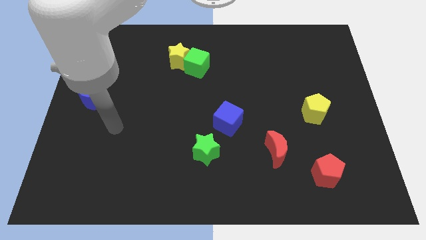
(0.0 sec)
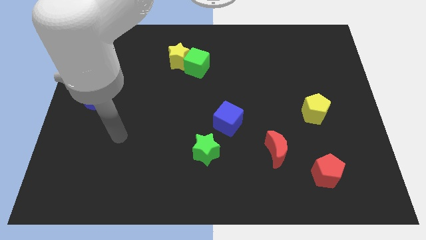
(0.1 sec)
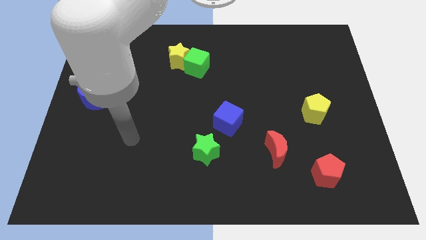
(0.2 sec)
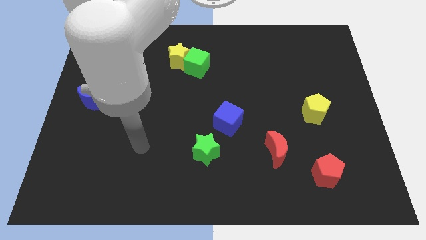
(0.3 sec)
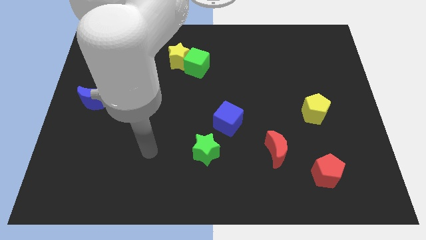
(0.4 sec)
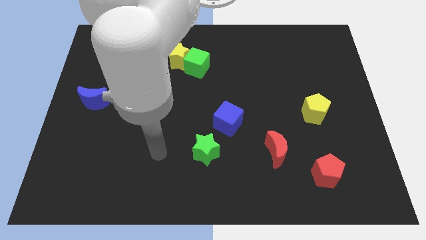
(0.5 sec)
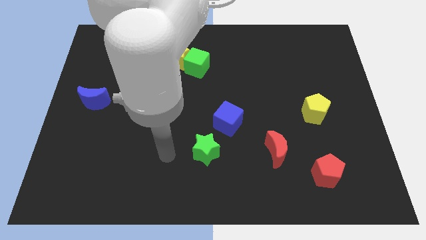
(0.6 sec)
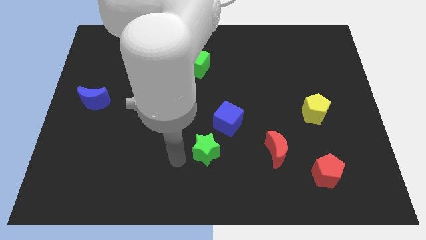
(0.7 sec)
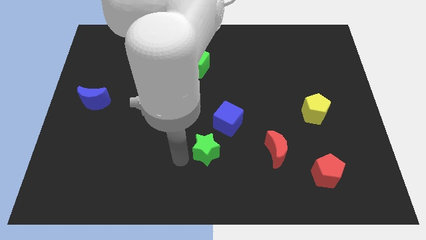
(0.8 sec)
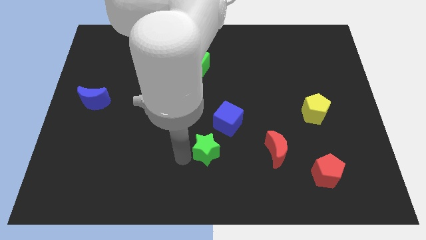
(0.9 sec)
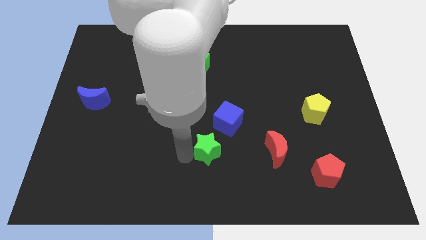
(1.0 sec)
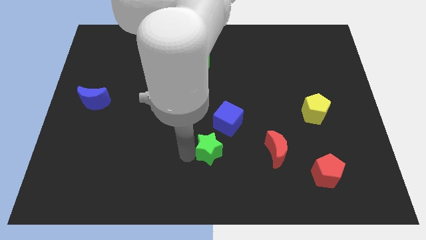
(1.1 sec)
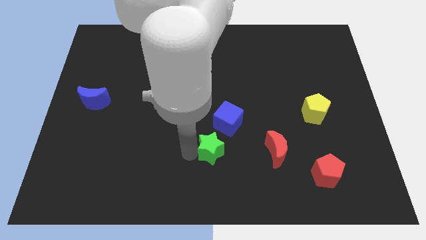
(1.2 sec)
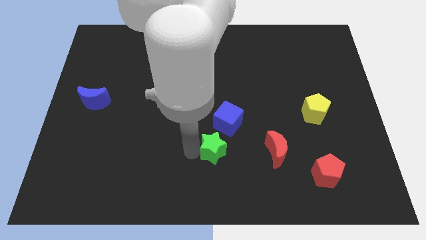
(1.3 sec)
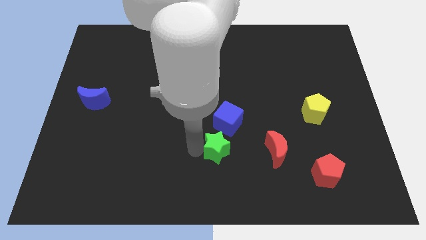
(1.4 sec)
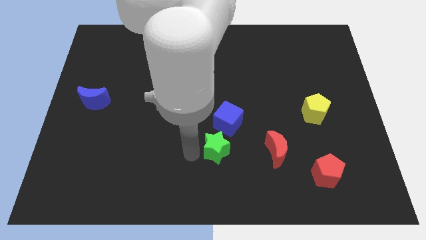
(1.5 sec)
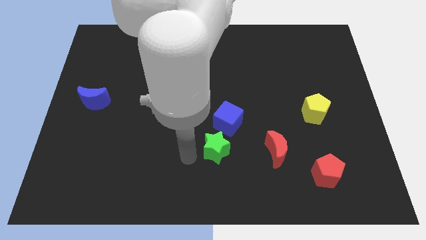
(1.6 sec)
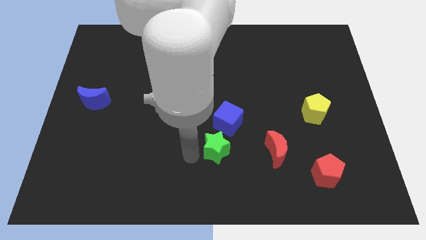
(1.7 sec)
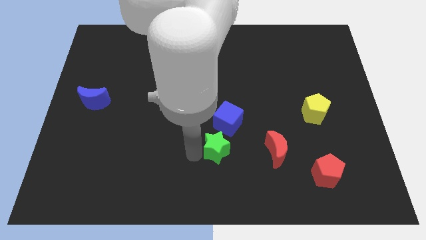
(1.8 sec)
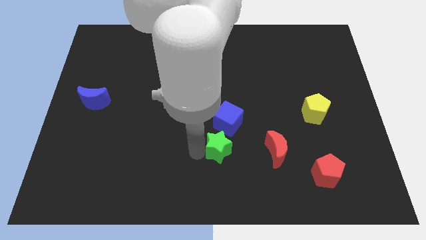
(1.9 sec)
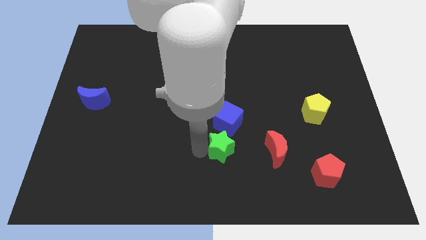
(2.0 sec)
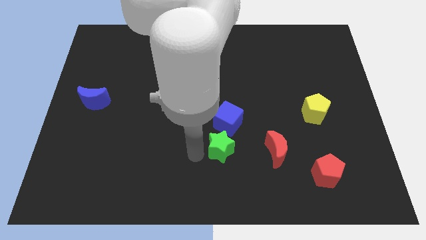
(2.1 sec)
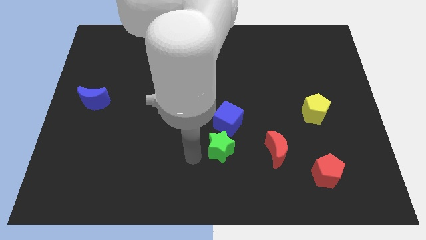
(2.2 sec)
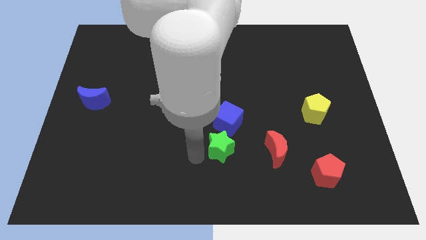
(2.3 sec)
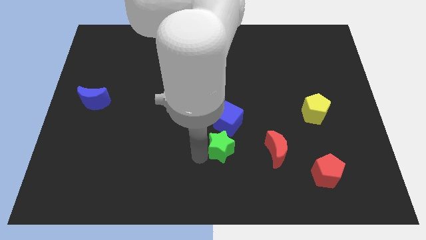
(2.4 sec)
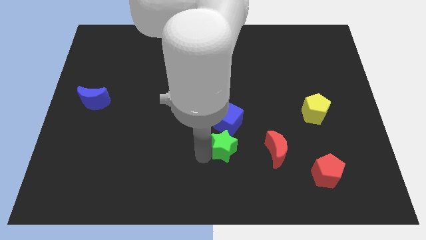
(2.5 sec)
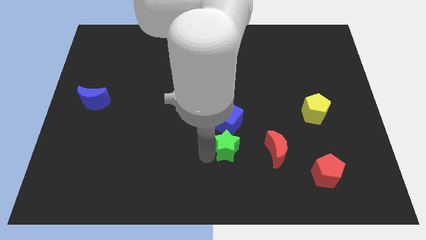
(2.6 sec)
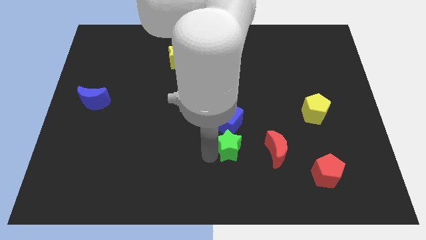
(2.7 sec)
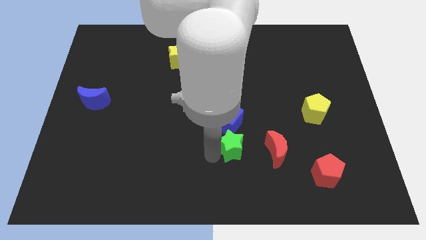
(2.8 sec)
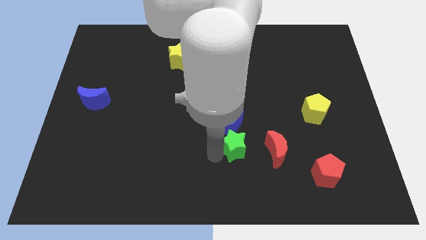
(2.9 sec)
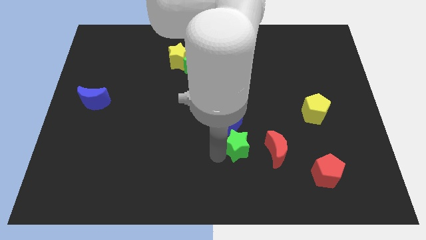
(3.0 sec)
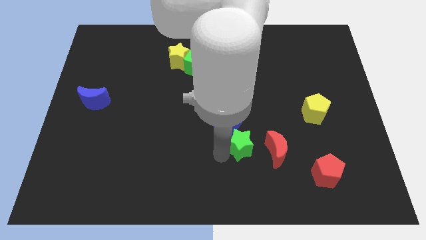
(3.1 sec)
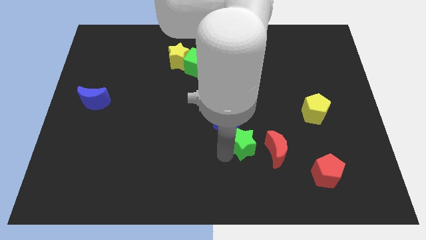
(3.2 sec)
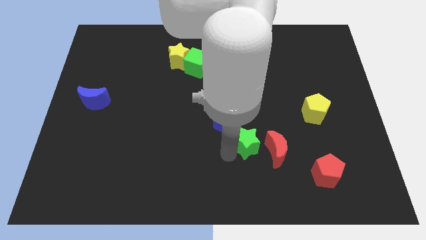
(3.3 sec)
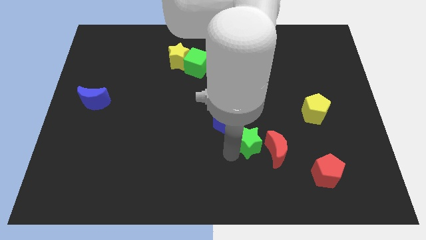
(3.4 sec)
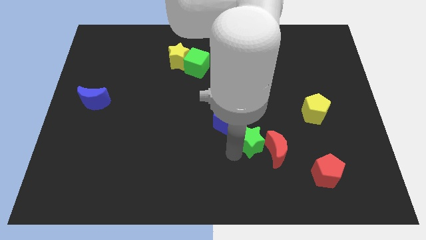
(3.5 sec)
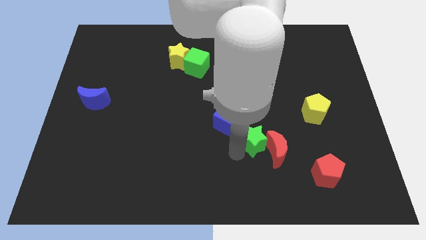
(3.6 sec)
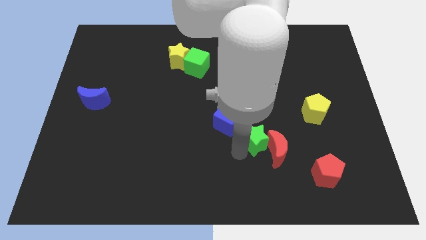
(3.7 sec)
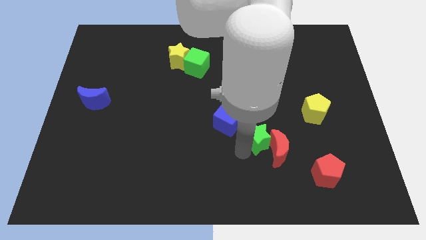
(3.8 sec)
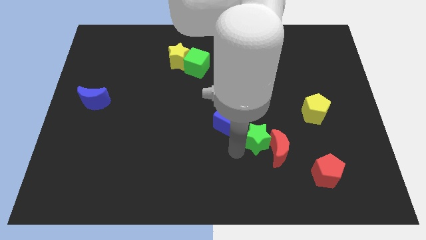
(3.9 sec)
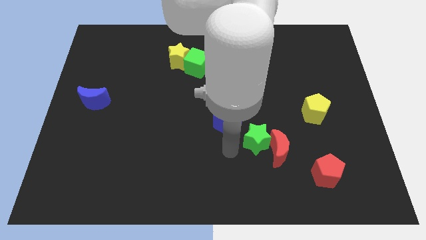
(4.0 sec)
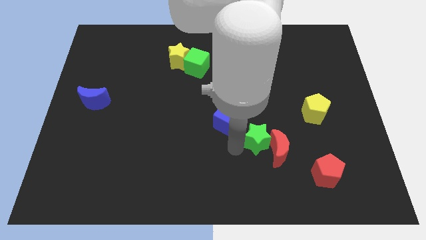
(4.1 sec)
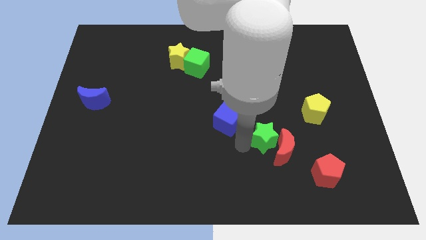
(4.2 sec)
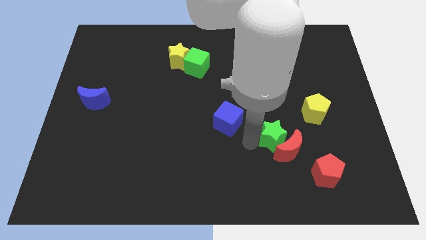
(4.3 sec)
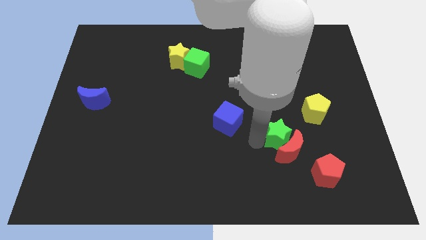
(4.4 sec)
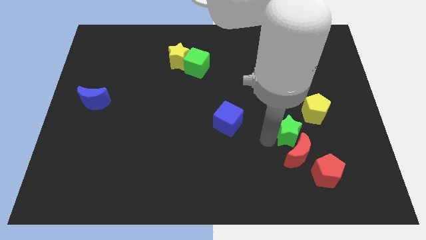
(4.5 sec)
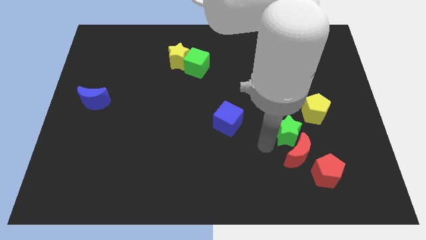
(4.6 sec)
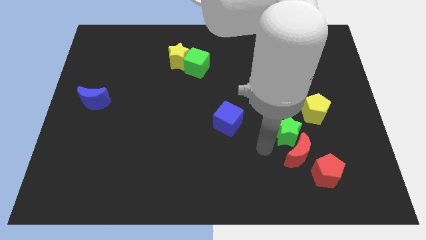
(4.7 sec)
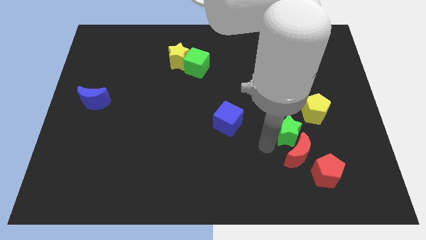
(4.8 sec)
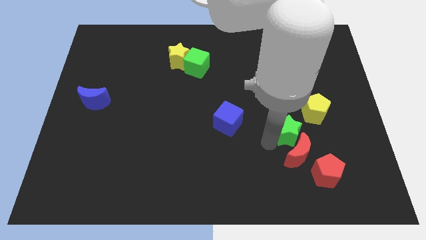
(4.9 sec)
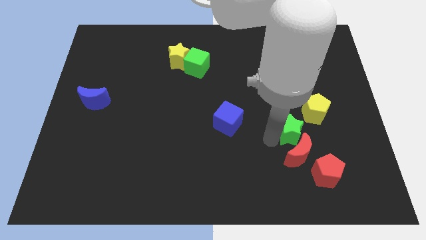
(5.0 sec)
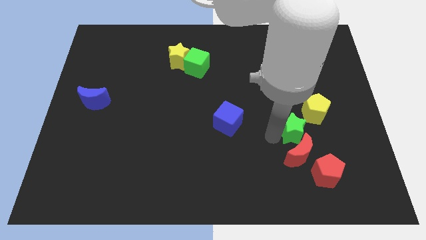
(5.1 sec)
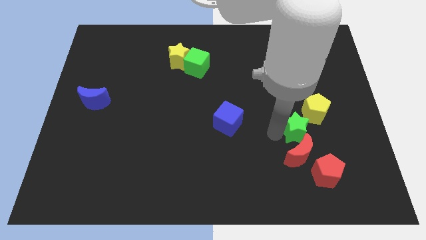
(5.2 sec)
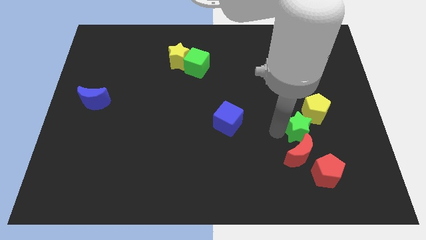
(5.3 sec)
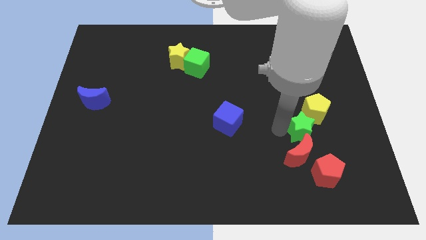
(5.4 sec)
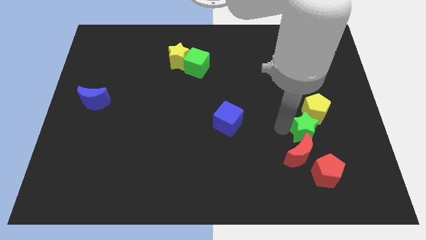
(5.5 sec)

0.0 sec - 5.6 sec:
slide the green star close to the yellow pentagon

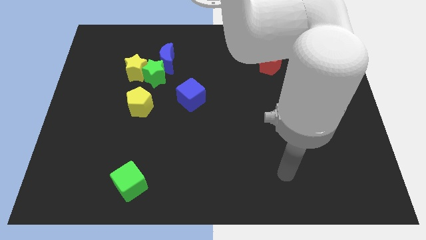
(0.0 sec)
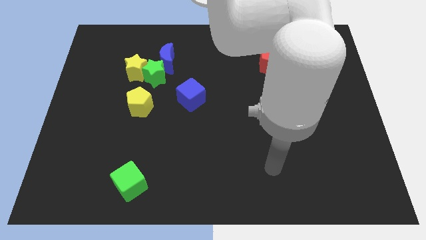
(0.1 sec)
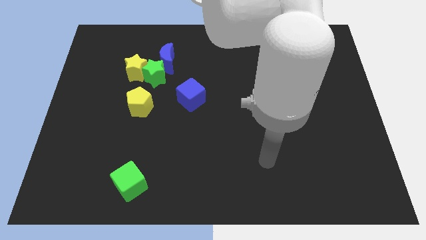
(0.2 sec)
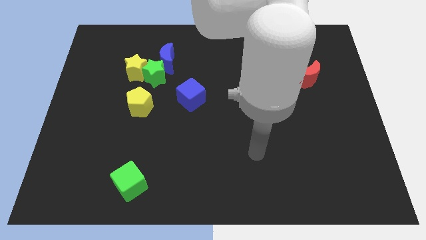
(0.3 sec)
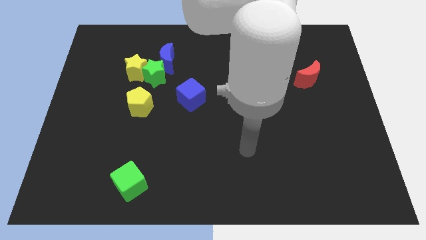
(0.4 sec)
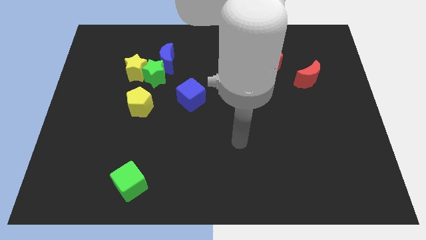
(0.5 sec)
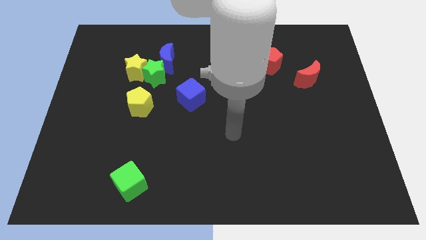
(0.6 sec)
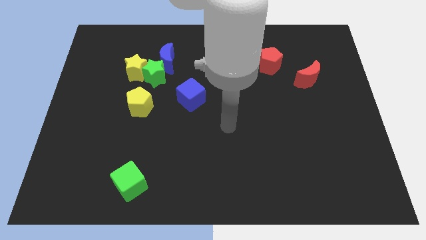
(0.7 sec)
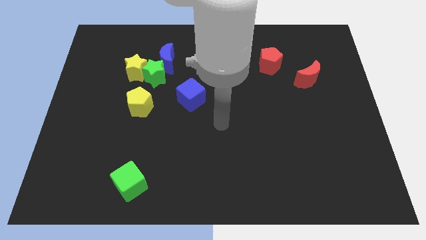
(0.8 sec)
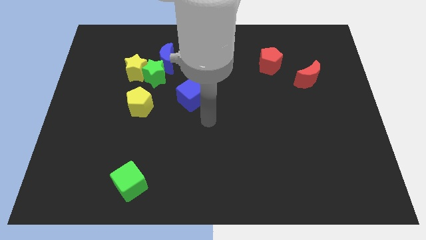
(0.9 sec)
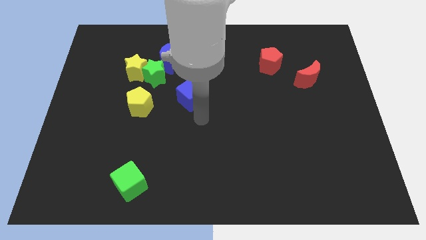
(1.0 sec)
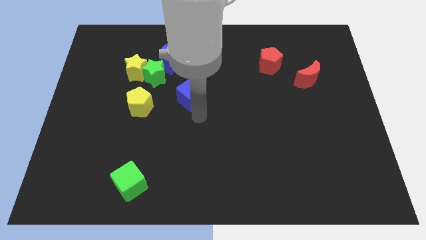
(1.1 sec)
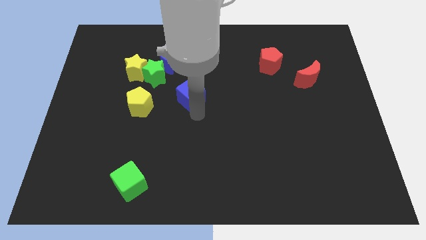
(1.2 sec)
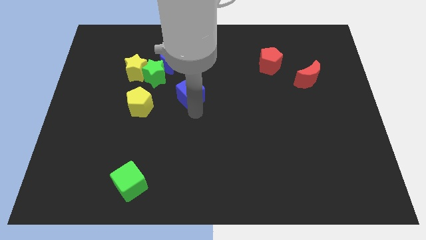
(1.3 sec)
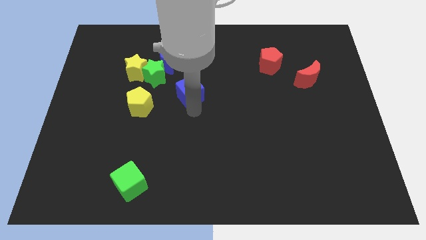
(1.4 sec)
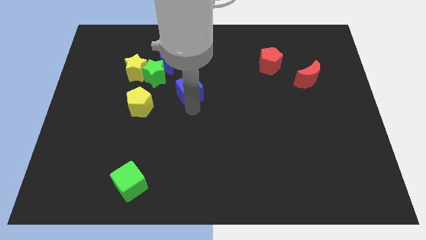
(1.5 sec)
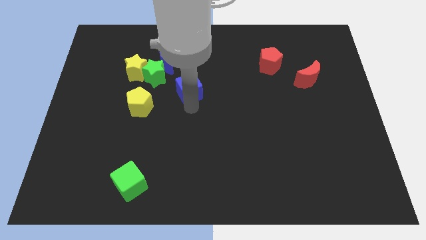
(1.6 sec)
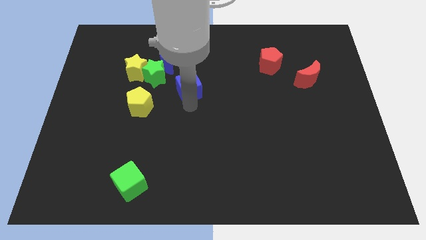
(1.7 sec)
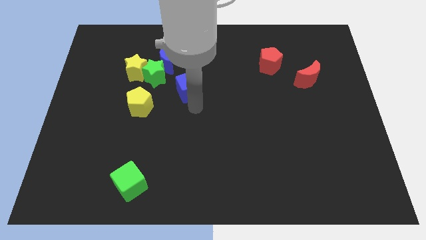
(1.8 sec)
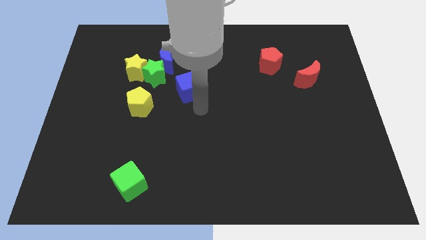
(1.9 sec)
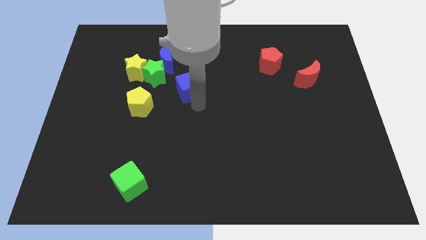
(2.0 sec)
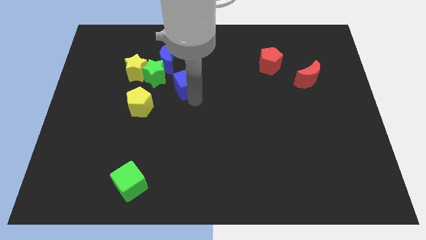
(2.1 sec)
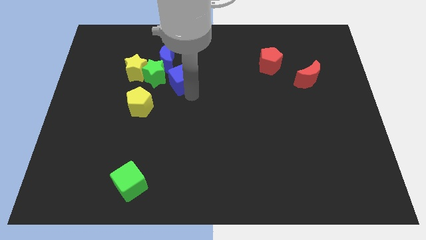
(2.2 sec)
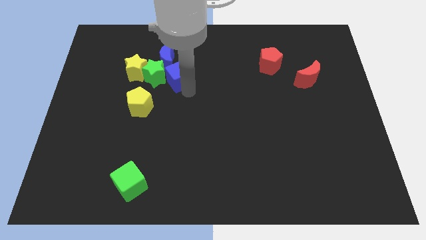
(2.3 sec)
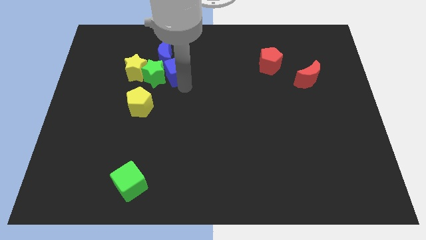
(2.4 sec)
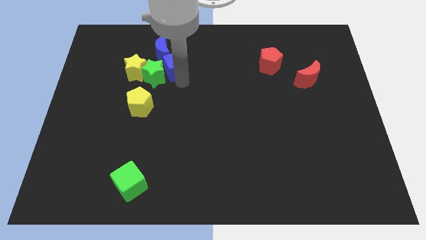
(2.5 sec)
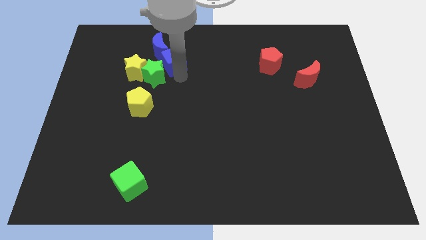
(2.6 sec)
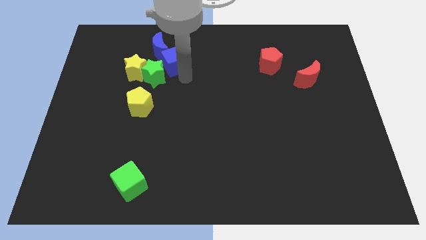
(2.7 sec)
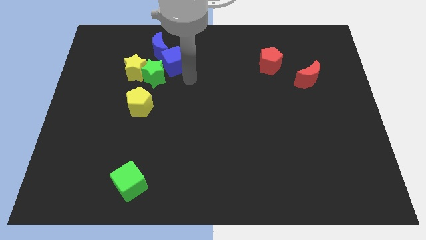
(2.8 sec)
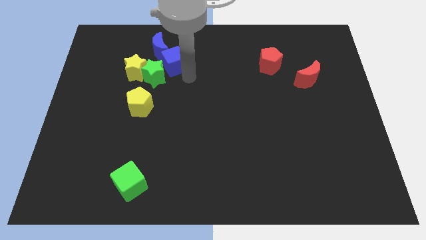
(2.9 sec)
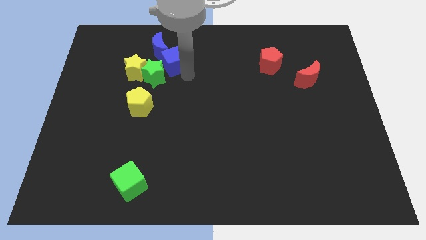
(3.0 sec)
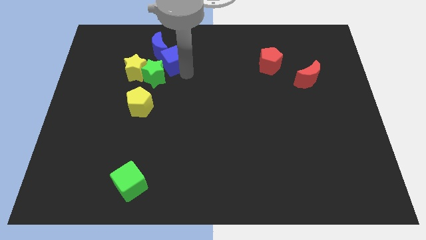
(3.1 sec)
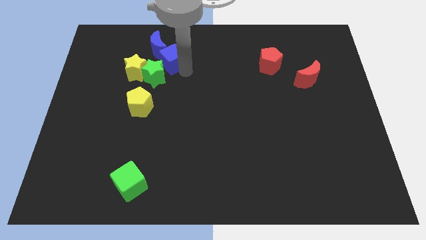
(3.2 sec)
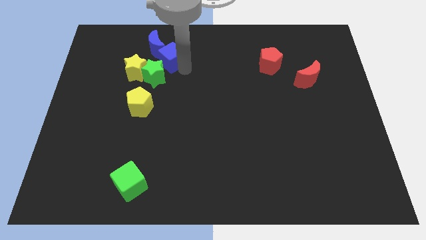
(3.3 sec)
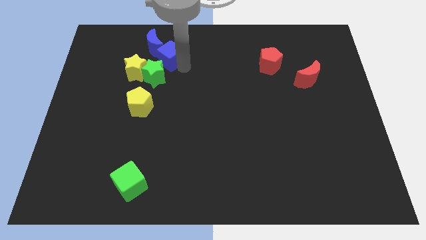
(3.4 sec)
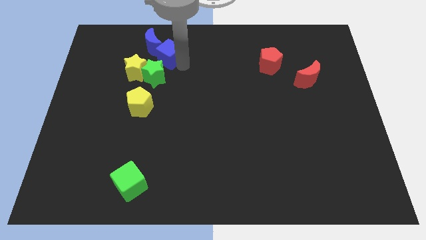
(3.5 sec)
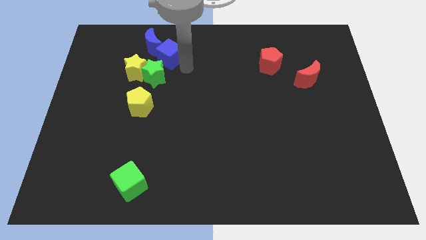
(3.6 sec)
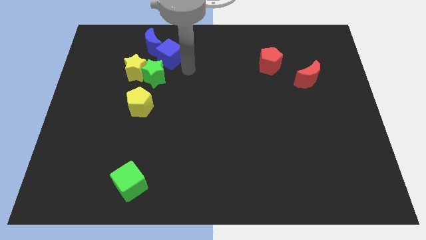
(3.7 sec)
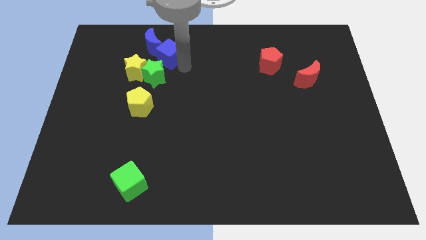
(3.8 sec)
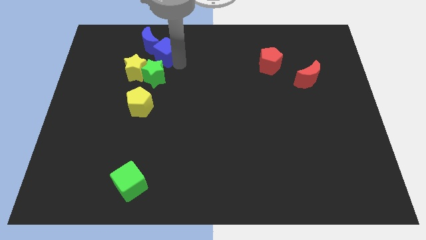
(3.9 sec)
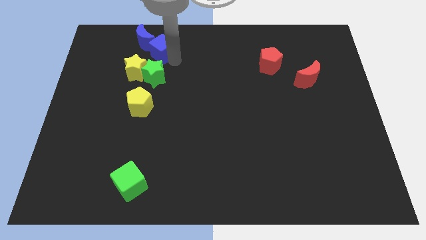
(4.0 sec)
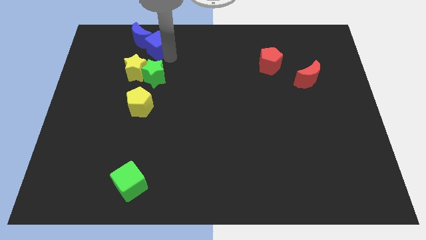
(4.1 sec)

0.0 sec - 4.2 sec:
move the blue cube towards the blue moon
